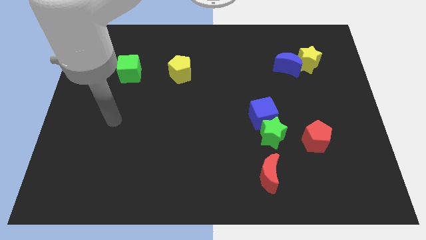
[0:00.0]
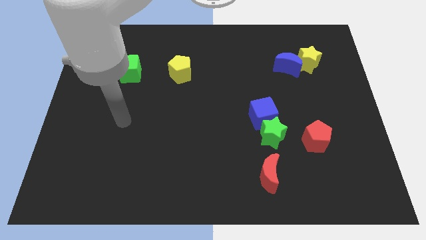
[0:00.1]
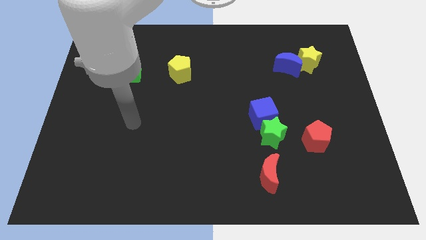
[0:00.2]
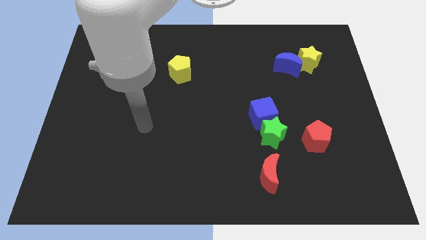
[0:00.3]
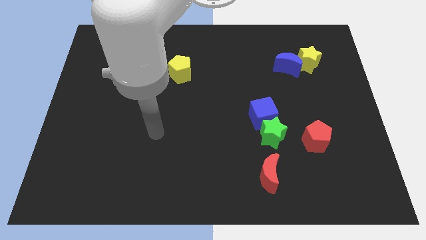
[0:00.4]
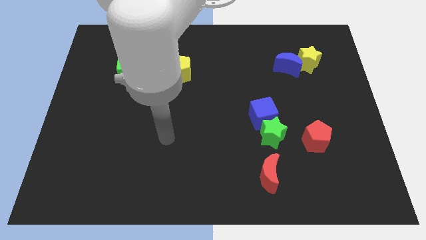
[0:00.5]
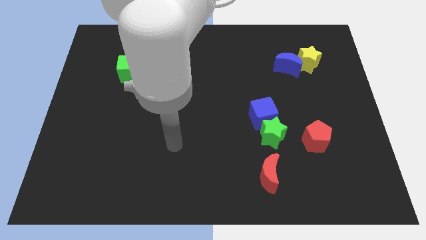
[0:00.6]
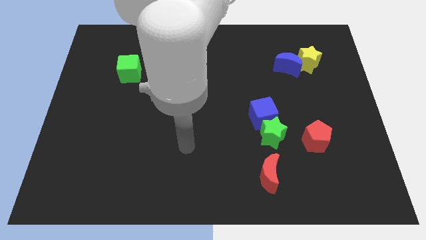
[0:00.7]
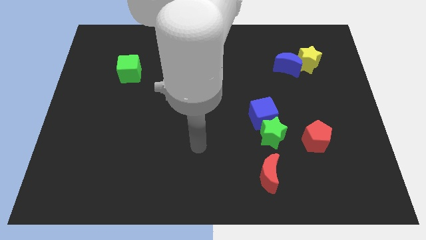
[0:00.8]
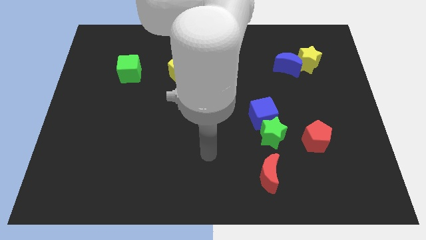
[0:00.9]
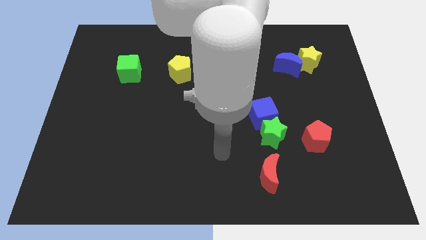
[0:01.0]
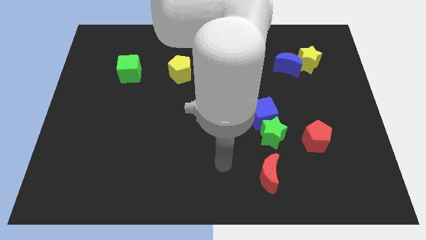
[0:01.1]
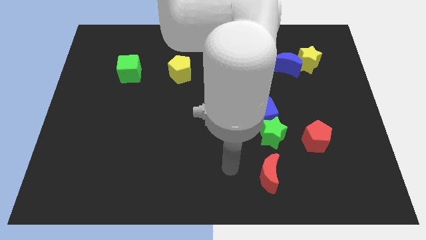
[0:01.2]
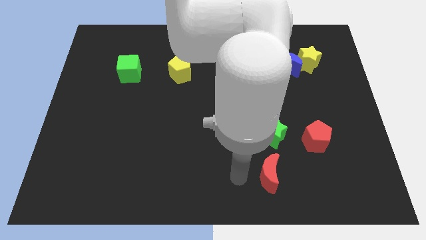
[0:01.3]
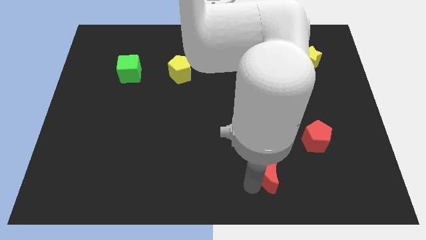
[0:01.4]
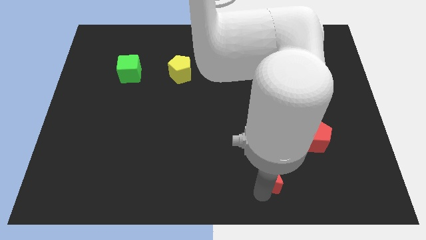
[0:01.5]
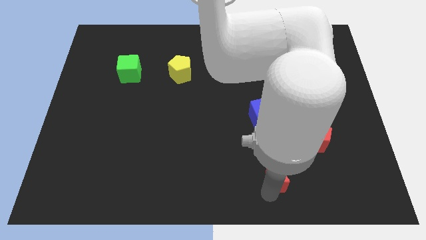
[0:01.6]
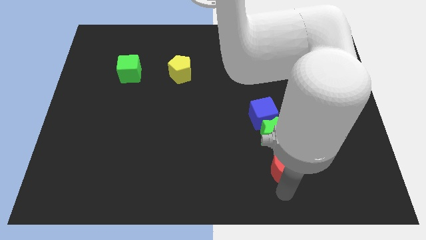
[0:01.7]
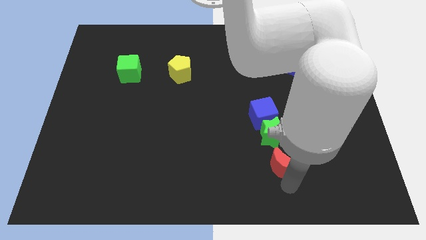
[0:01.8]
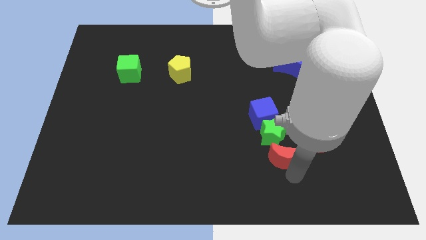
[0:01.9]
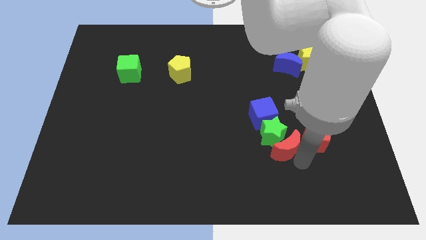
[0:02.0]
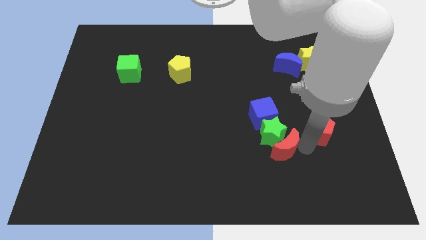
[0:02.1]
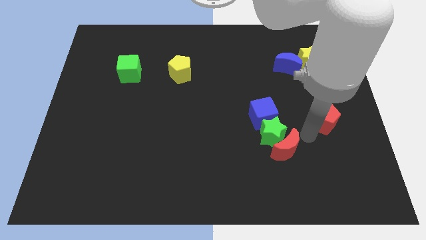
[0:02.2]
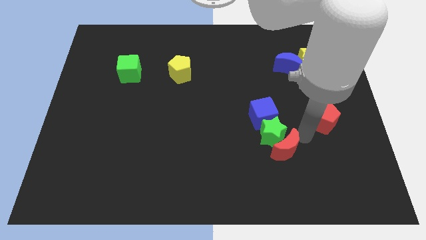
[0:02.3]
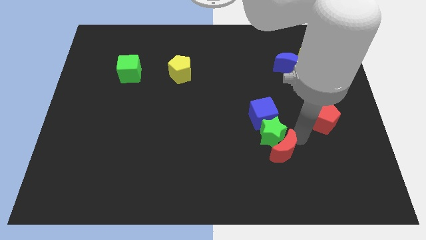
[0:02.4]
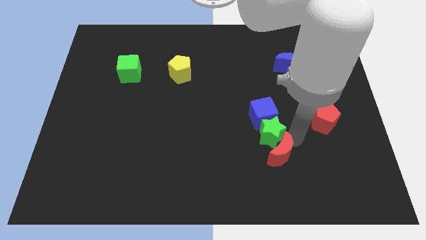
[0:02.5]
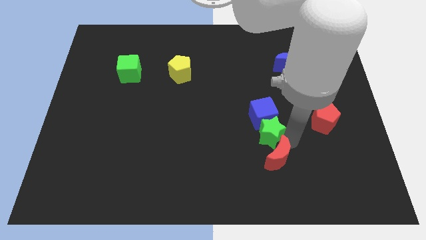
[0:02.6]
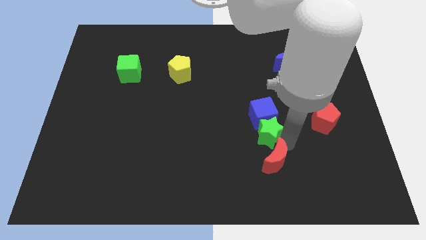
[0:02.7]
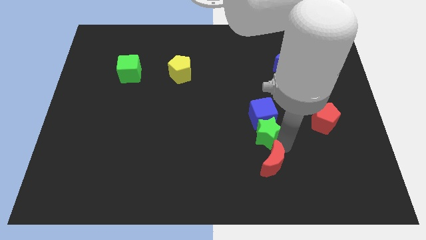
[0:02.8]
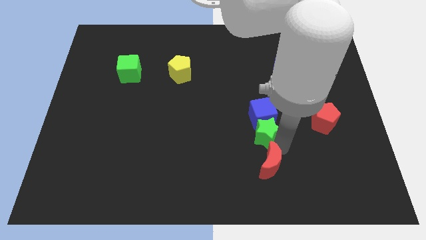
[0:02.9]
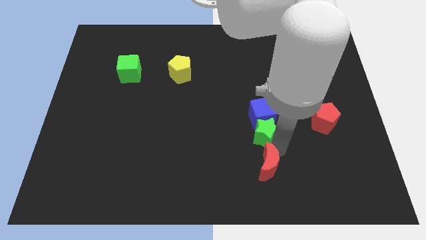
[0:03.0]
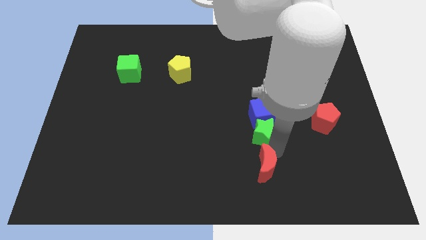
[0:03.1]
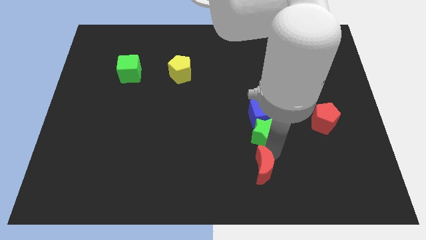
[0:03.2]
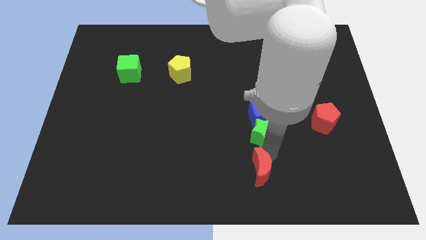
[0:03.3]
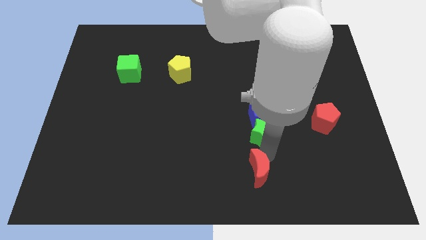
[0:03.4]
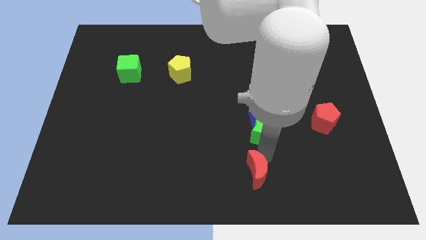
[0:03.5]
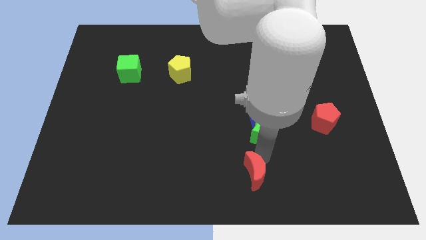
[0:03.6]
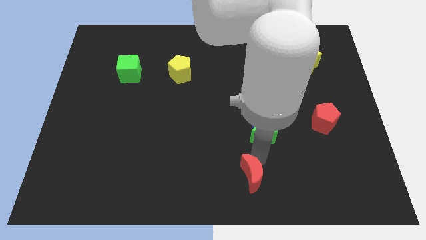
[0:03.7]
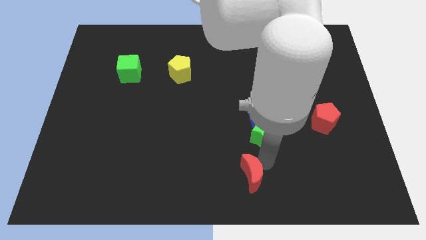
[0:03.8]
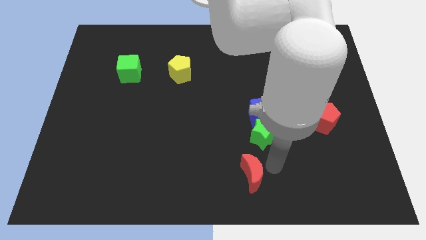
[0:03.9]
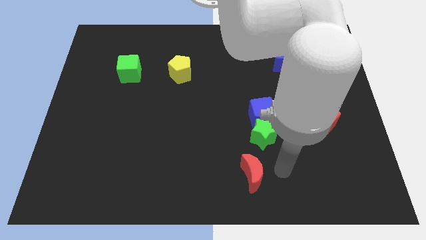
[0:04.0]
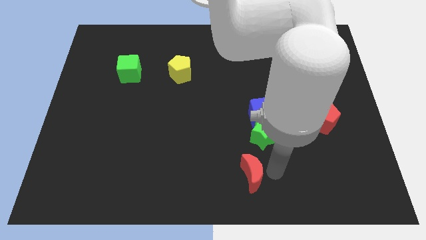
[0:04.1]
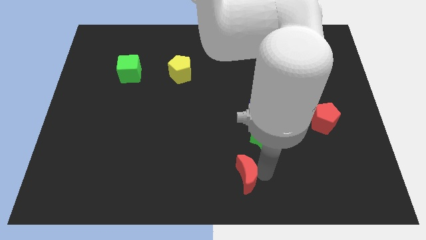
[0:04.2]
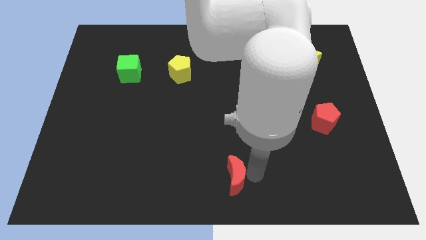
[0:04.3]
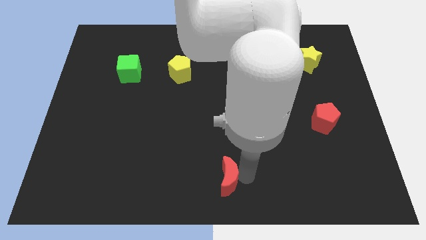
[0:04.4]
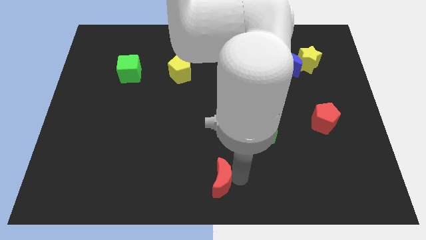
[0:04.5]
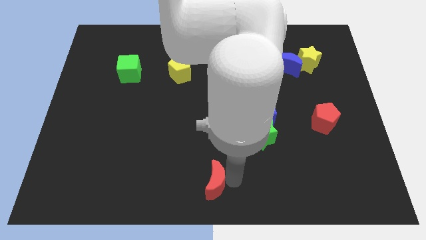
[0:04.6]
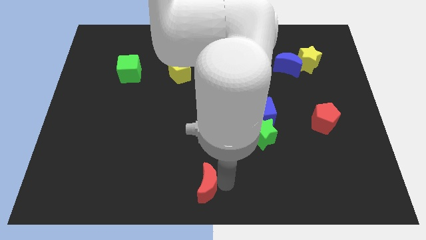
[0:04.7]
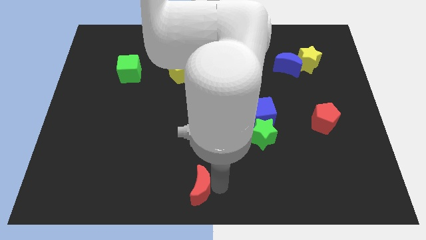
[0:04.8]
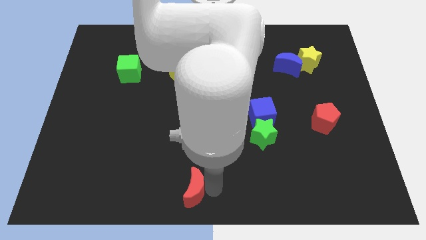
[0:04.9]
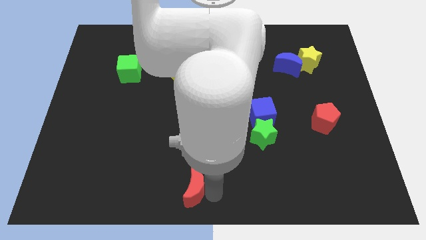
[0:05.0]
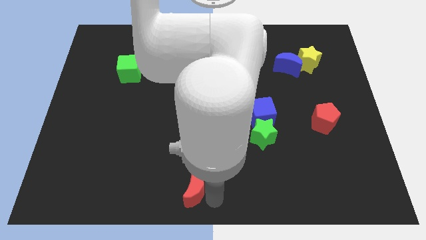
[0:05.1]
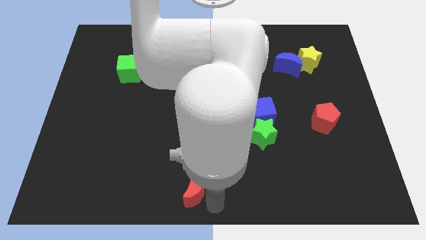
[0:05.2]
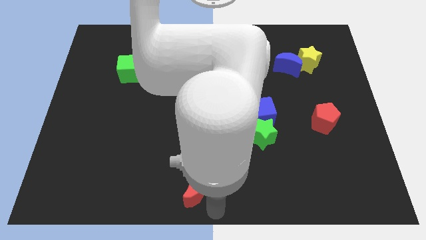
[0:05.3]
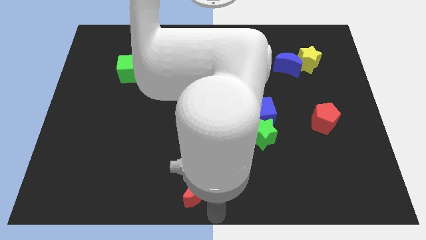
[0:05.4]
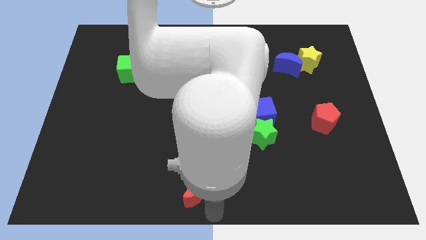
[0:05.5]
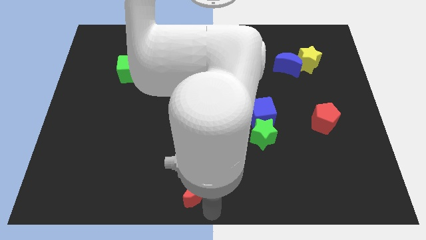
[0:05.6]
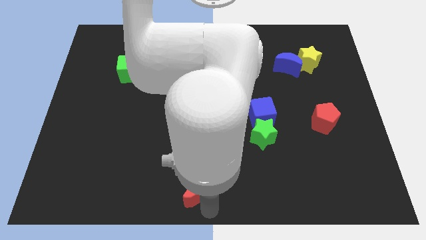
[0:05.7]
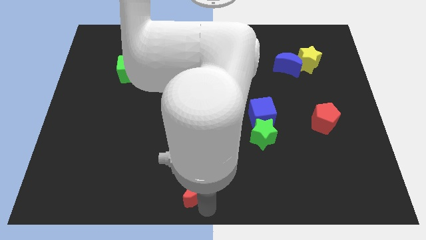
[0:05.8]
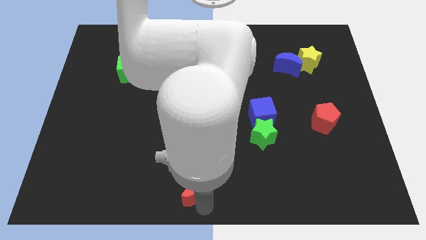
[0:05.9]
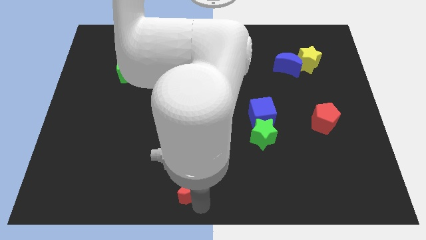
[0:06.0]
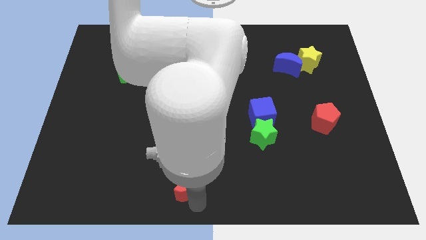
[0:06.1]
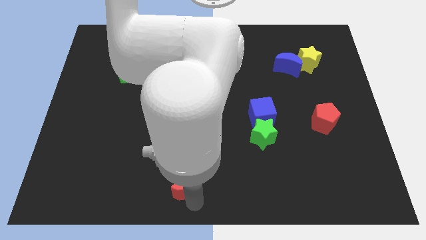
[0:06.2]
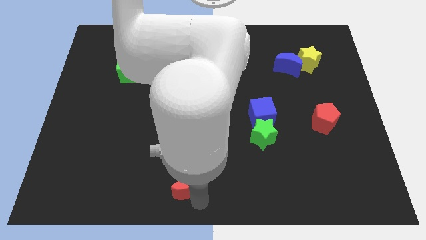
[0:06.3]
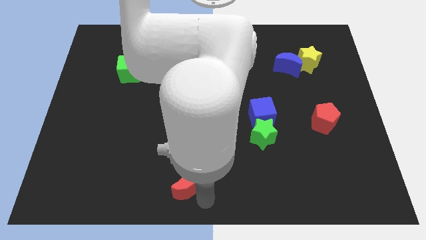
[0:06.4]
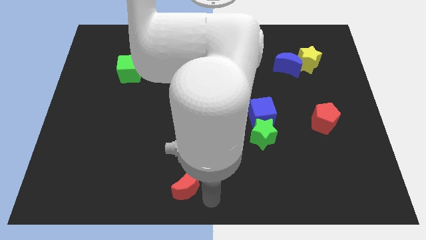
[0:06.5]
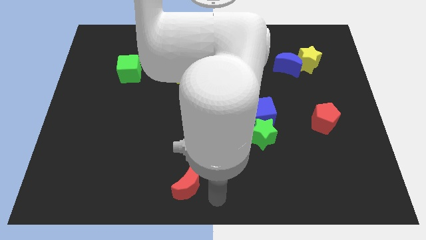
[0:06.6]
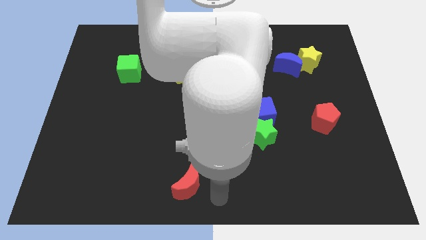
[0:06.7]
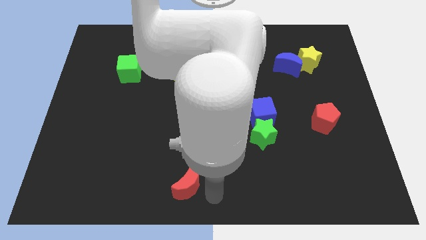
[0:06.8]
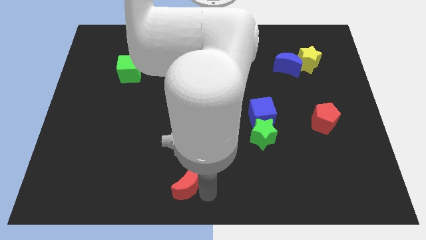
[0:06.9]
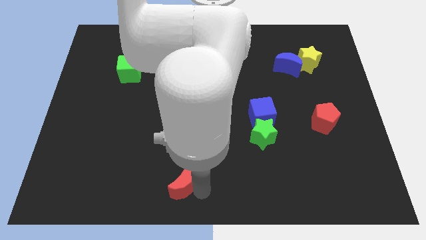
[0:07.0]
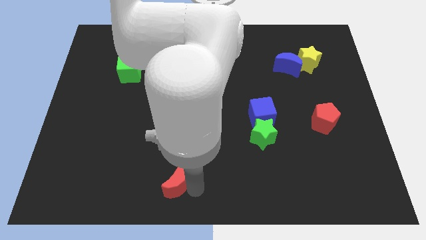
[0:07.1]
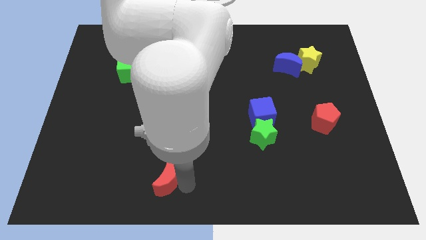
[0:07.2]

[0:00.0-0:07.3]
push the red moon left

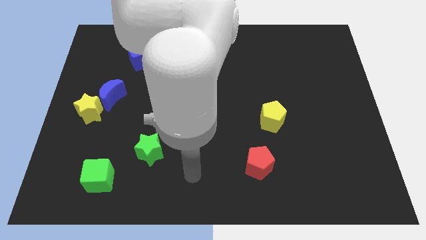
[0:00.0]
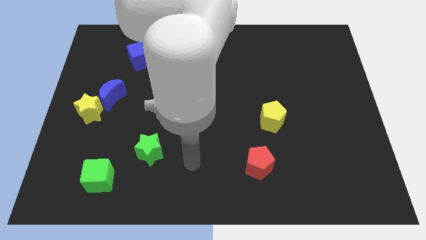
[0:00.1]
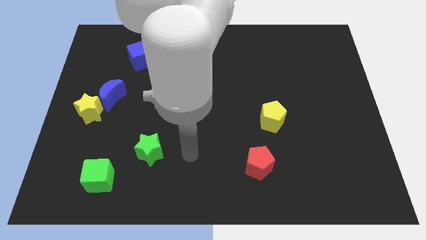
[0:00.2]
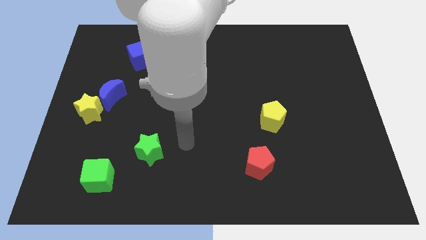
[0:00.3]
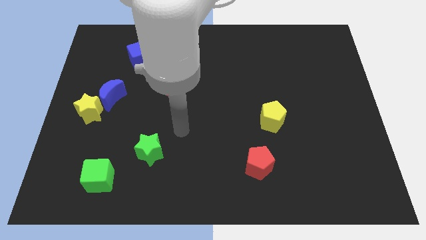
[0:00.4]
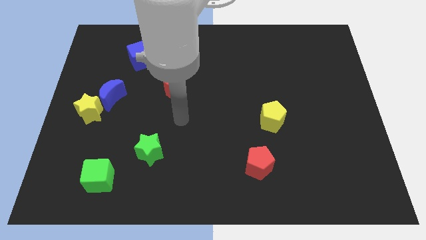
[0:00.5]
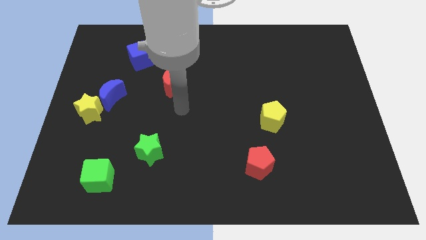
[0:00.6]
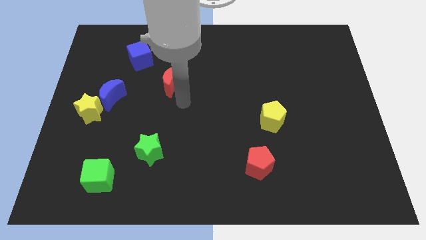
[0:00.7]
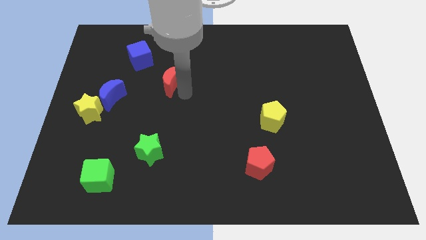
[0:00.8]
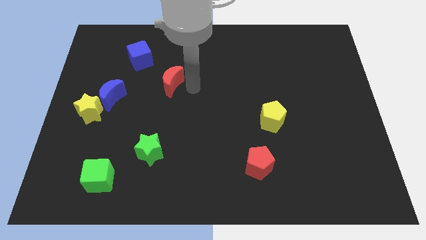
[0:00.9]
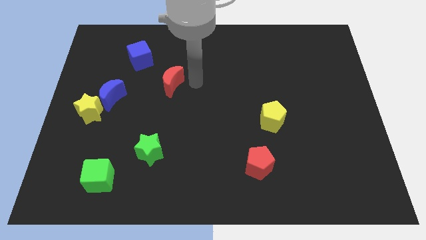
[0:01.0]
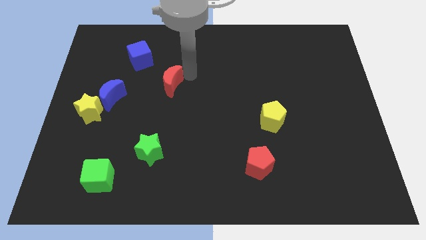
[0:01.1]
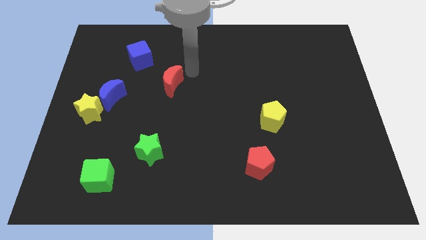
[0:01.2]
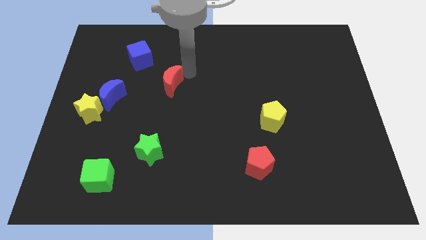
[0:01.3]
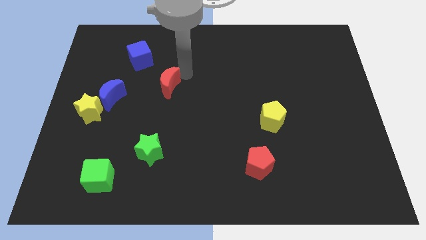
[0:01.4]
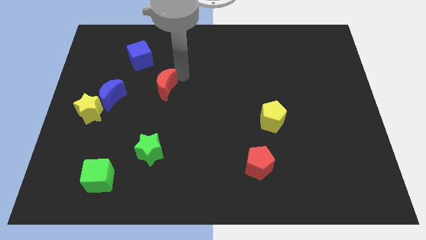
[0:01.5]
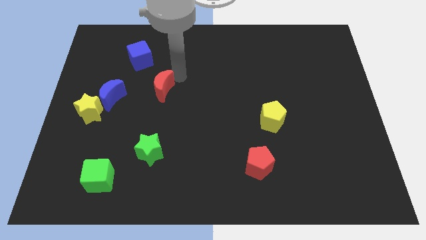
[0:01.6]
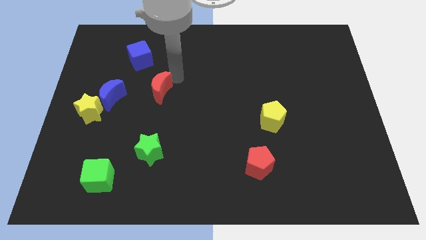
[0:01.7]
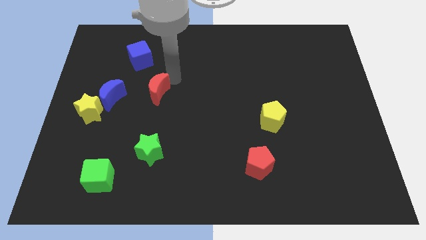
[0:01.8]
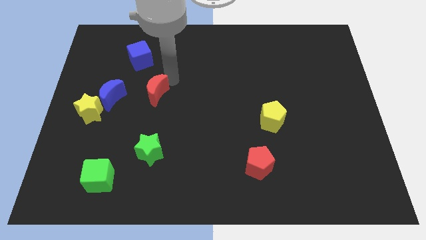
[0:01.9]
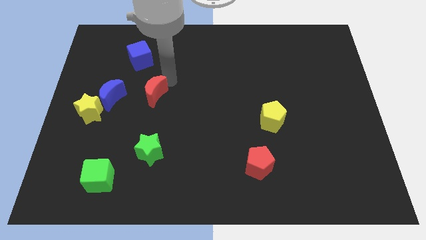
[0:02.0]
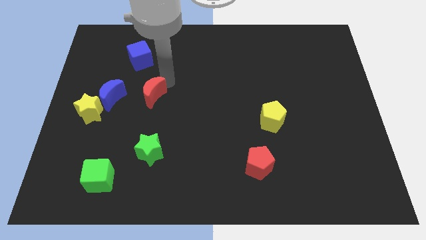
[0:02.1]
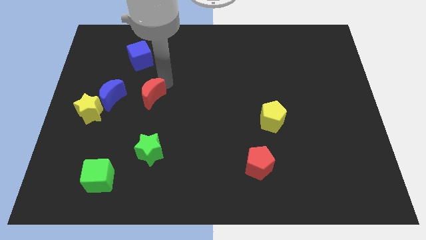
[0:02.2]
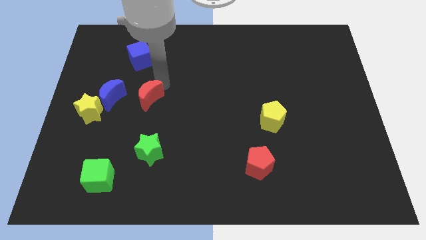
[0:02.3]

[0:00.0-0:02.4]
slightly move the red moon downwards and left diagonally
